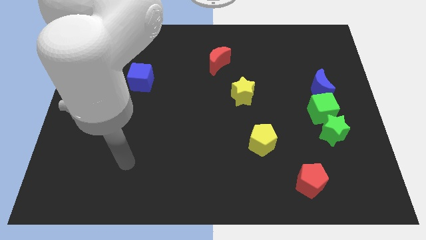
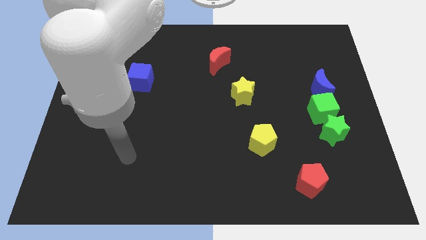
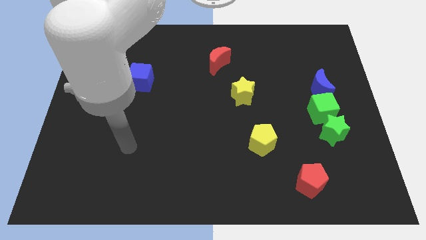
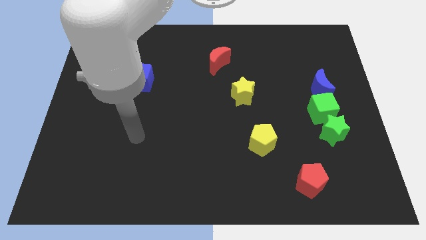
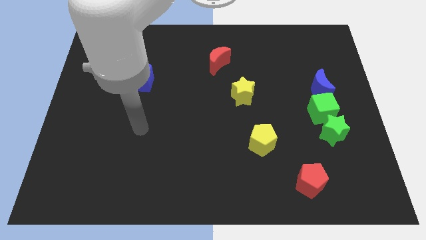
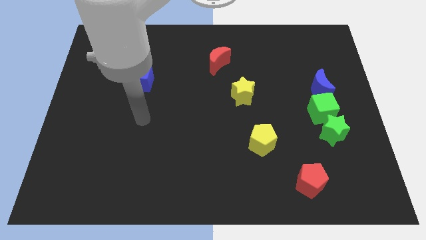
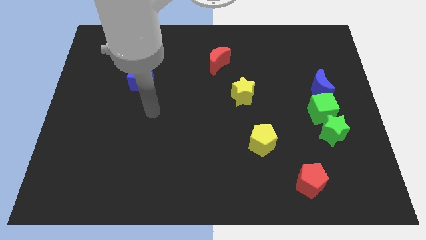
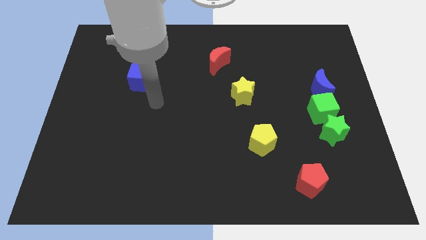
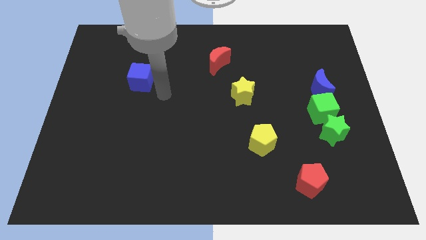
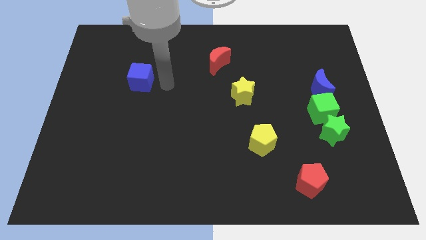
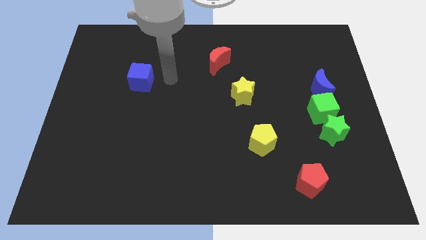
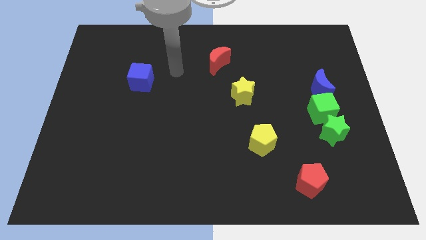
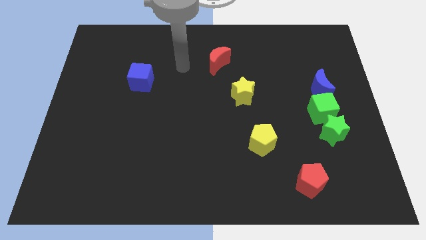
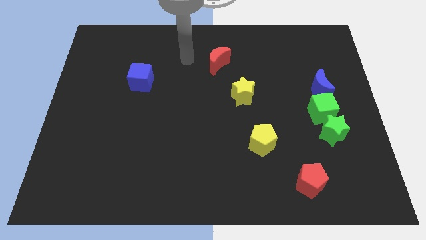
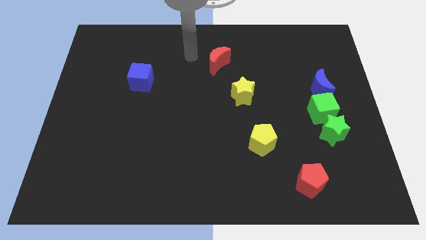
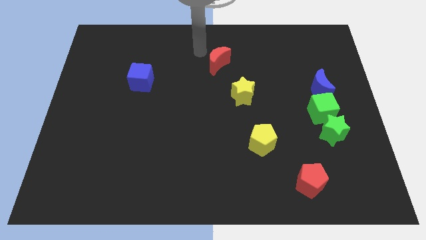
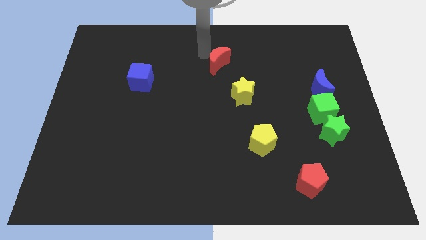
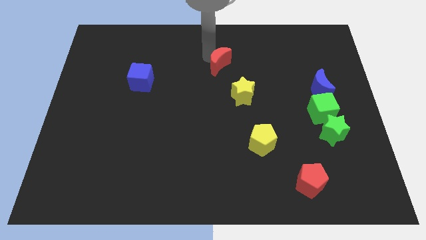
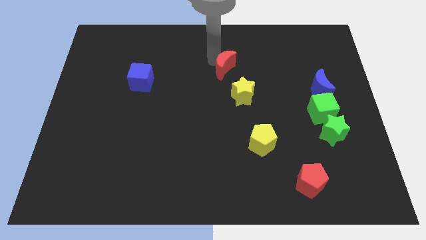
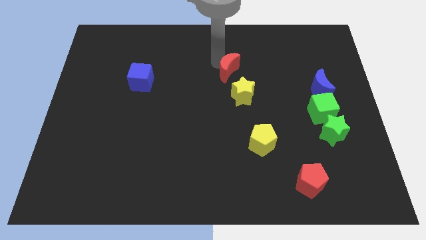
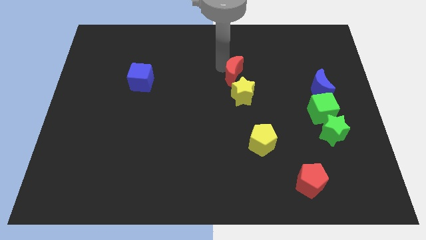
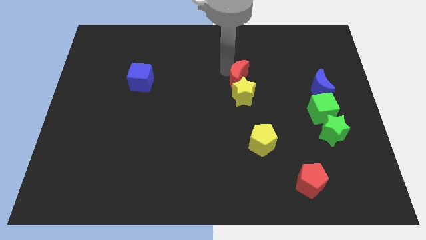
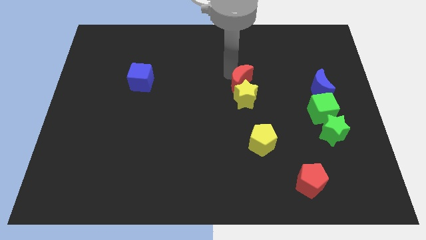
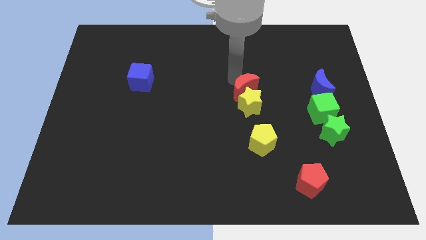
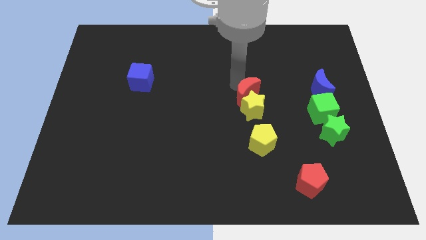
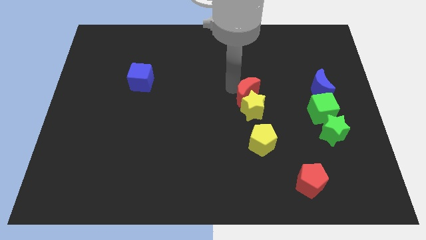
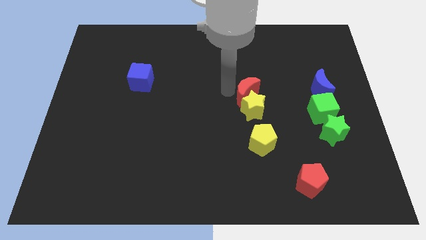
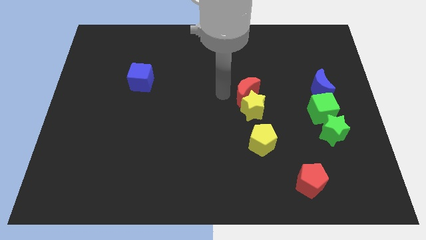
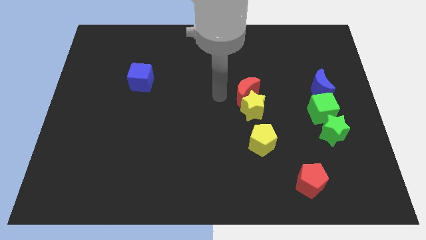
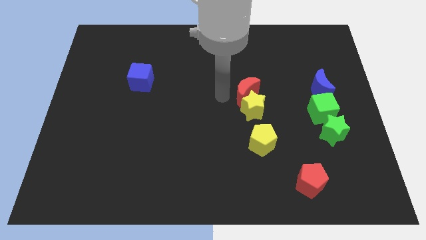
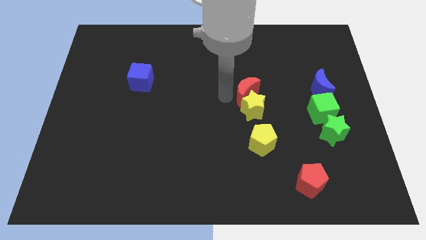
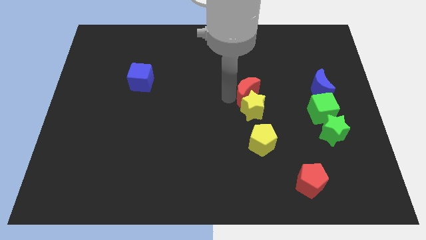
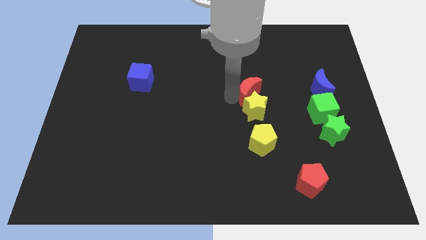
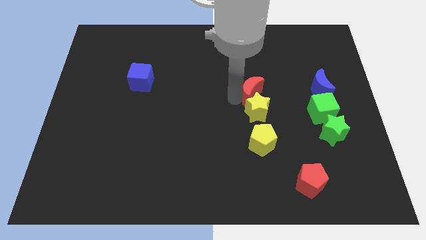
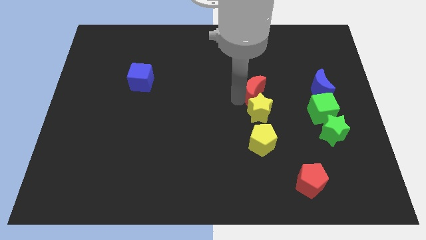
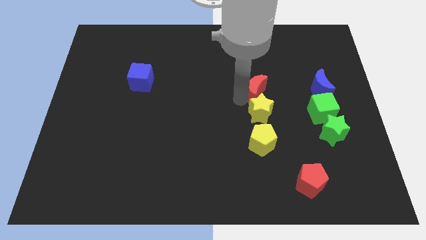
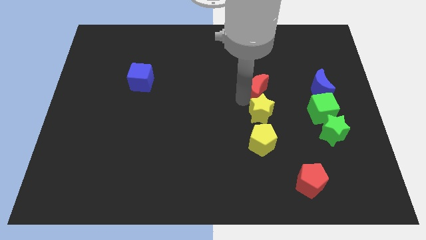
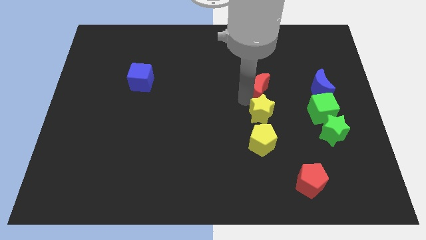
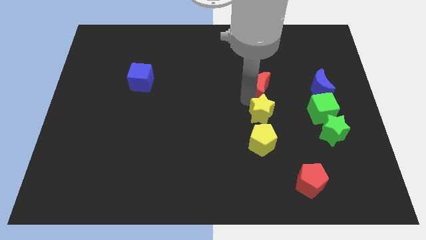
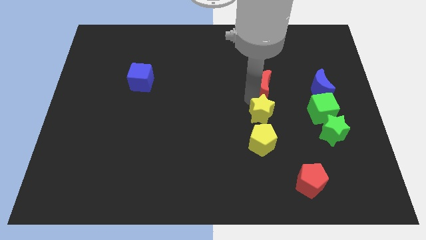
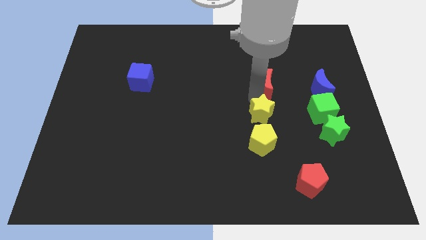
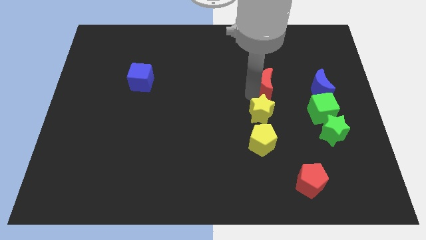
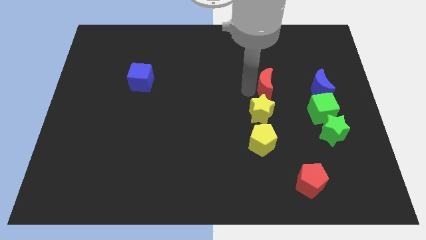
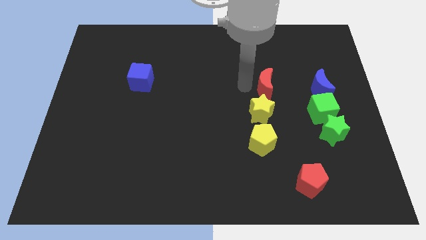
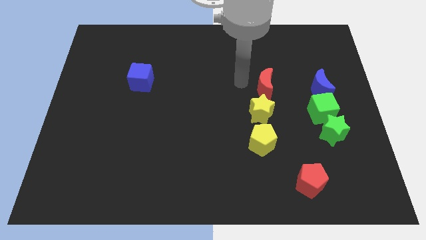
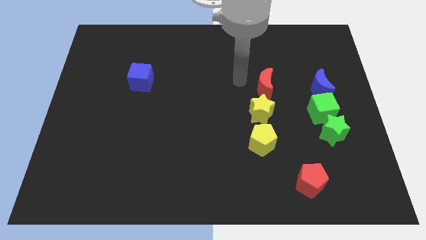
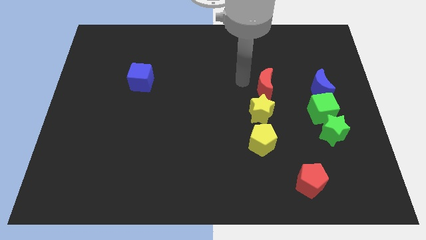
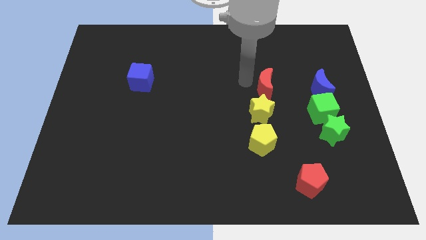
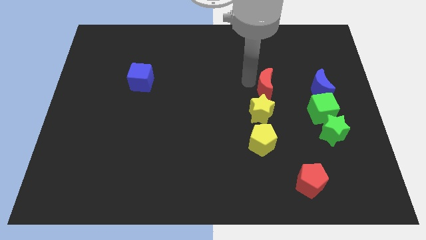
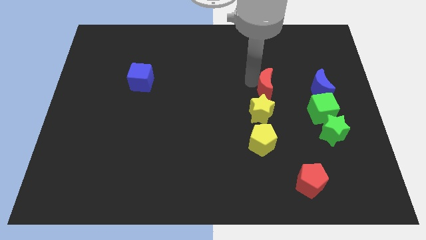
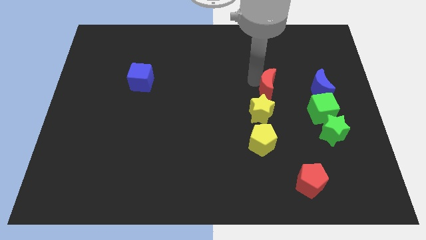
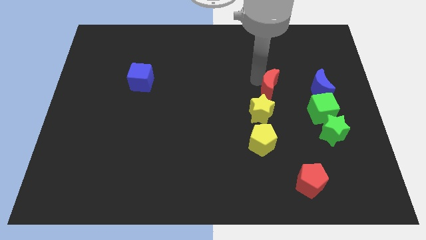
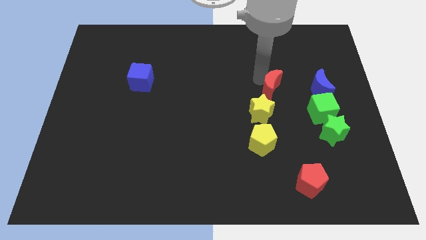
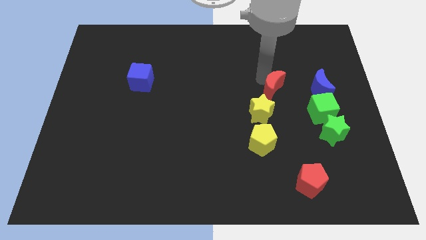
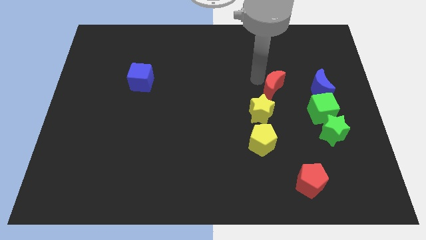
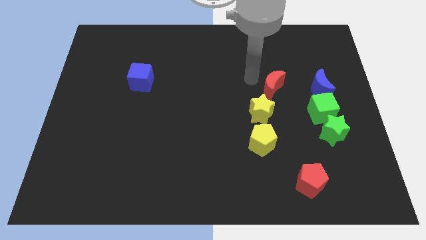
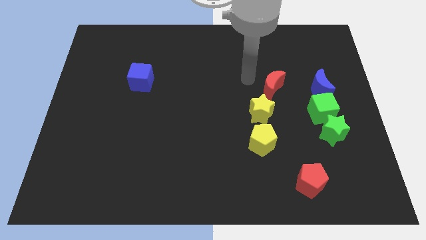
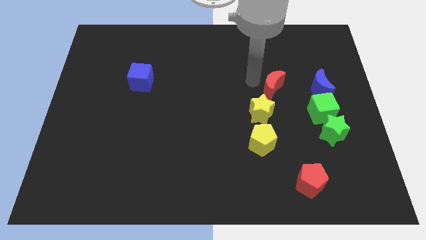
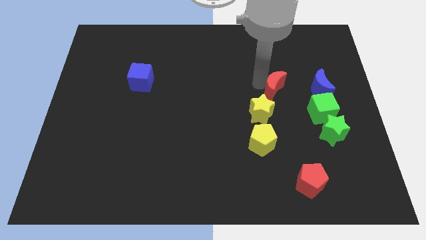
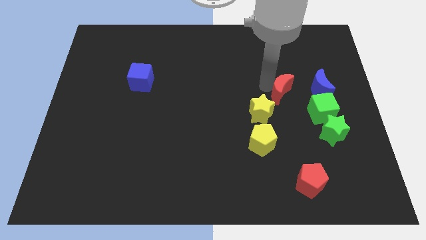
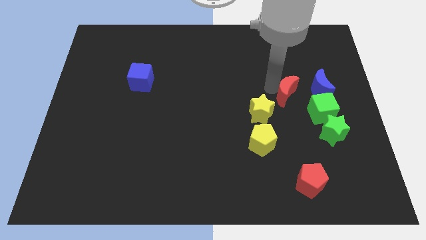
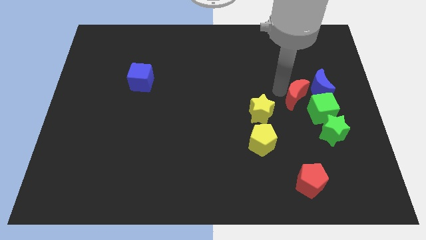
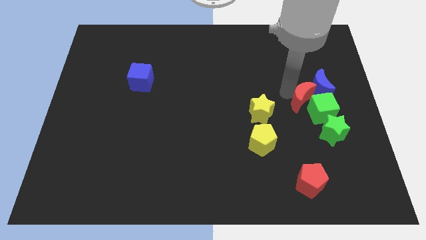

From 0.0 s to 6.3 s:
push the red moon next to the green cube

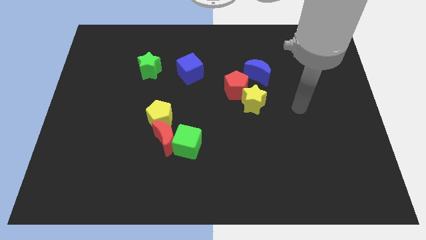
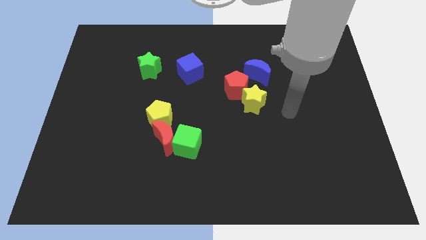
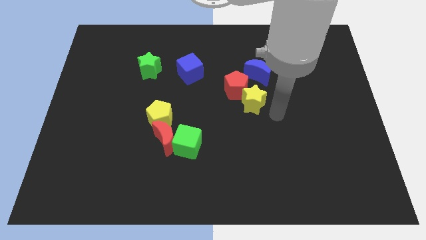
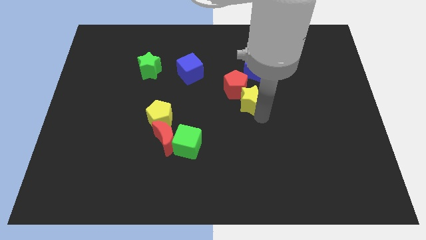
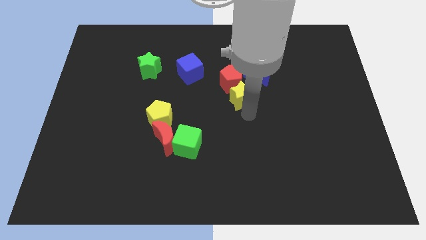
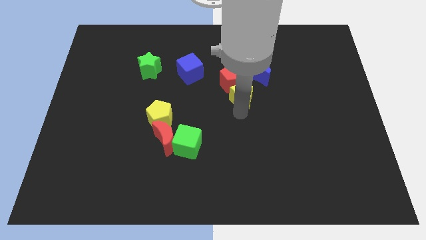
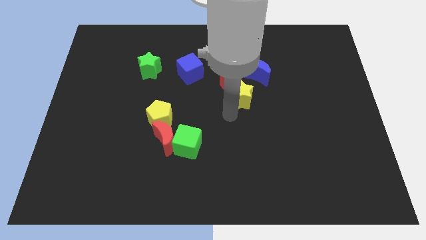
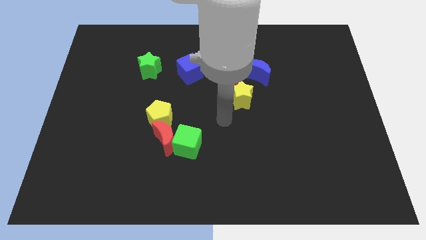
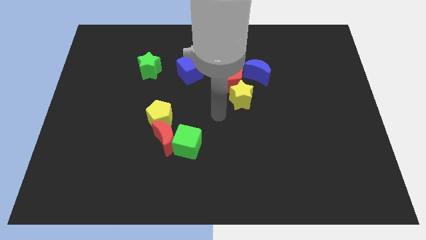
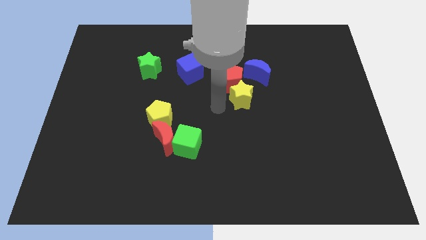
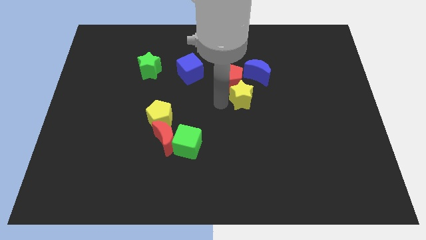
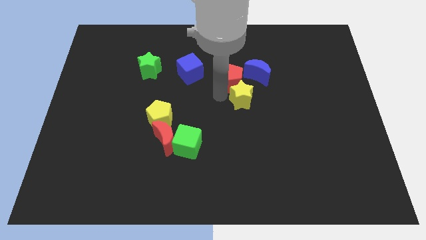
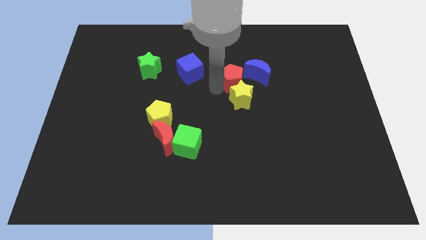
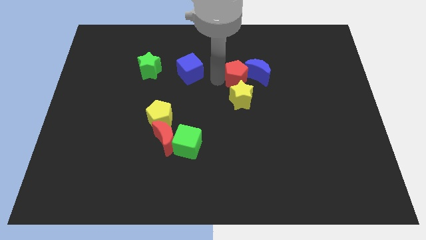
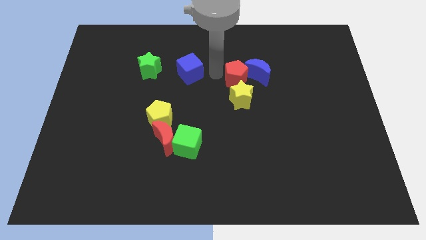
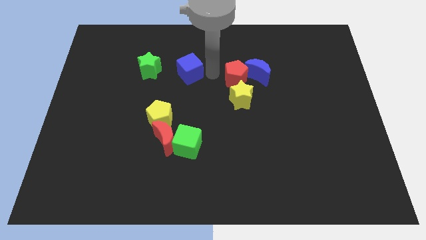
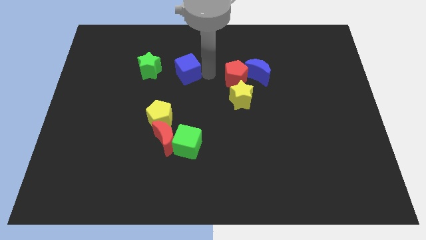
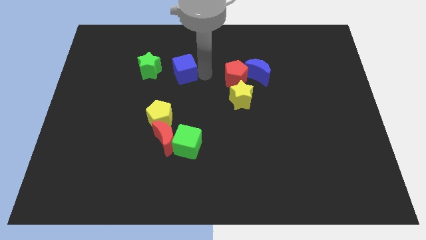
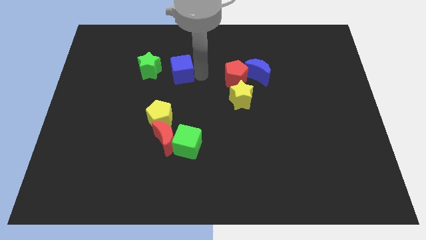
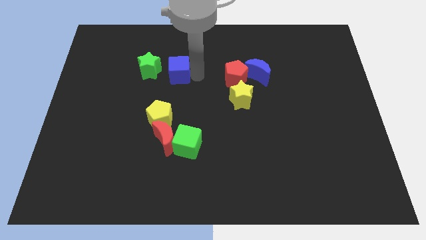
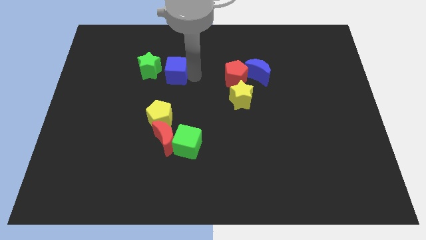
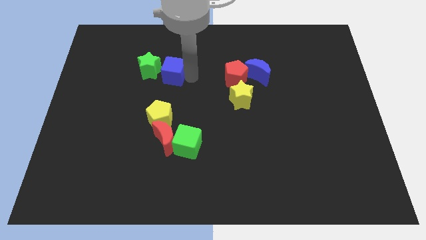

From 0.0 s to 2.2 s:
put the blue cube towards the green star
